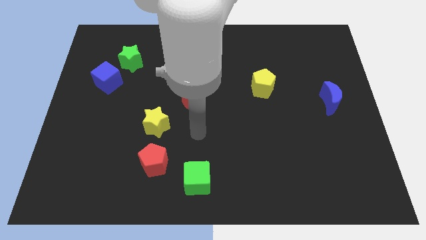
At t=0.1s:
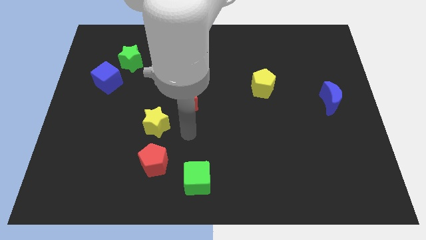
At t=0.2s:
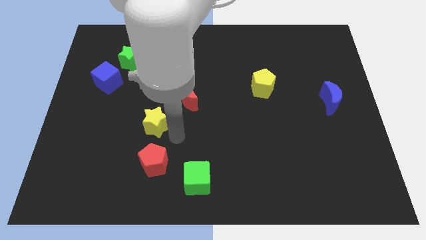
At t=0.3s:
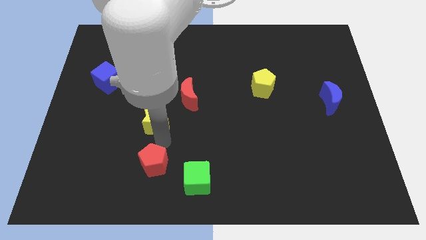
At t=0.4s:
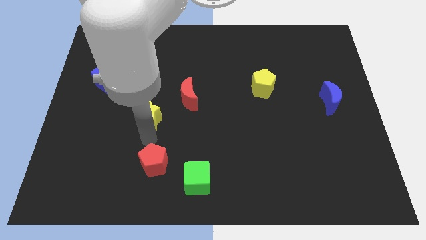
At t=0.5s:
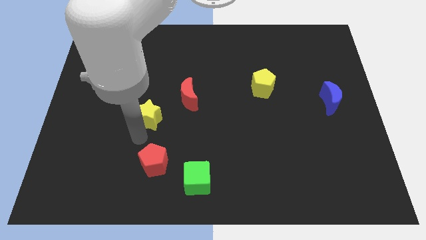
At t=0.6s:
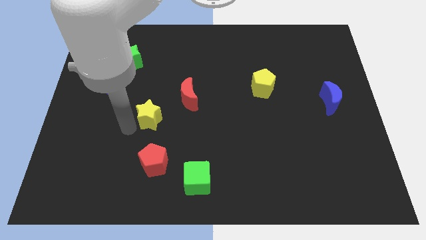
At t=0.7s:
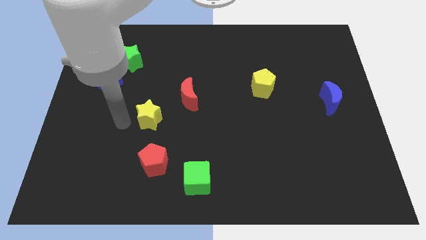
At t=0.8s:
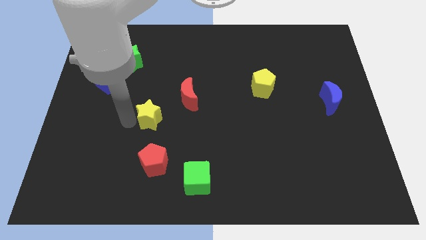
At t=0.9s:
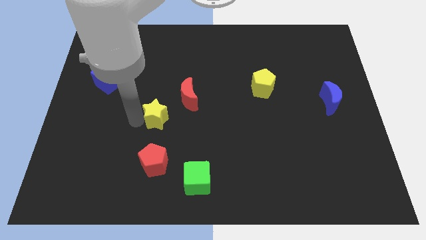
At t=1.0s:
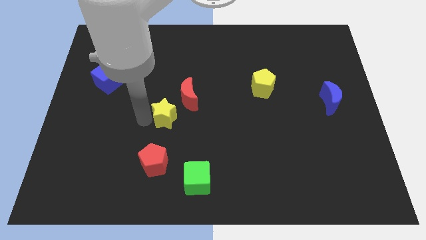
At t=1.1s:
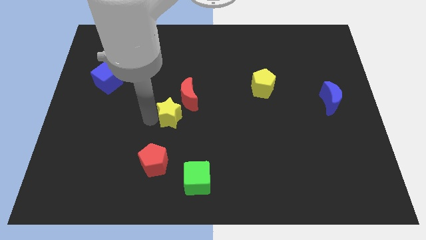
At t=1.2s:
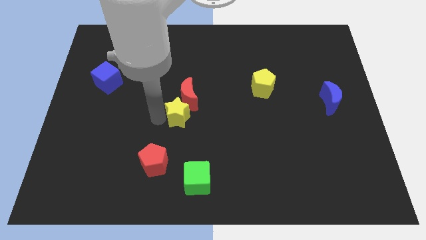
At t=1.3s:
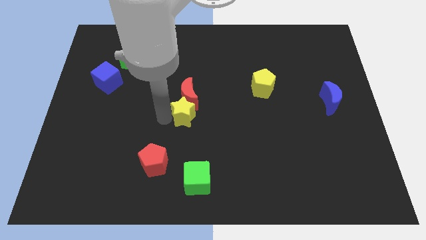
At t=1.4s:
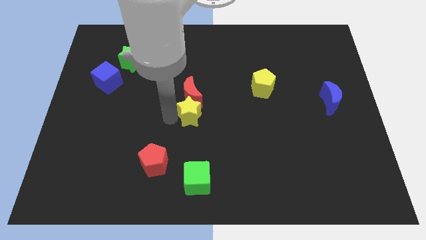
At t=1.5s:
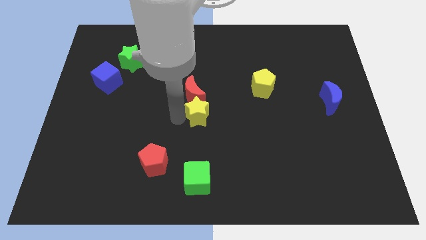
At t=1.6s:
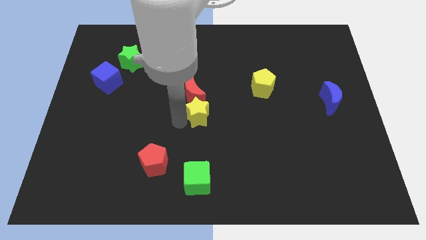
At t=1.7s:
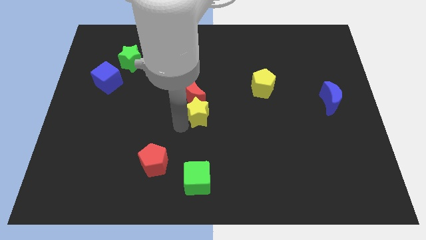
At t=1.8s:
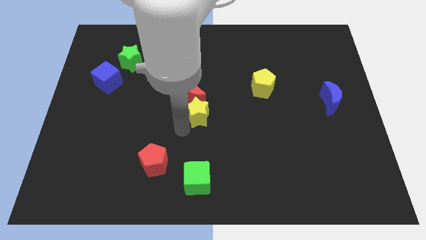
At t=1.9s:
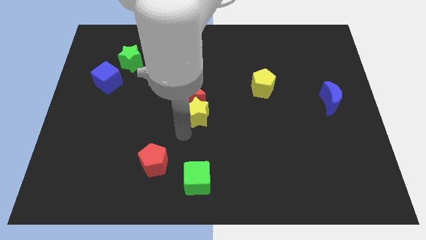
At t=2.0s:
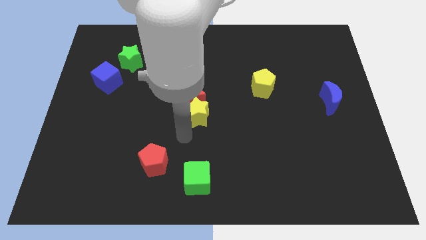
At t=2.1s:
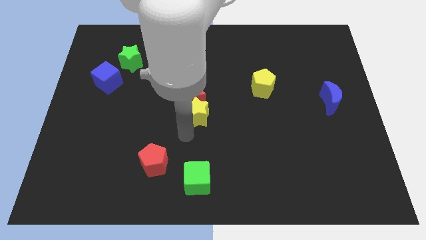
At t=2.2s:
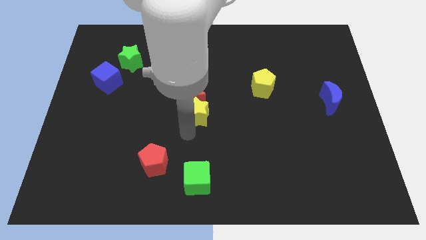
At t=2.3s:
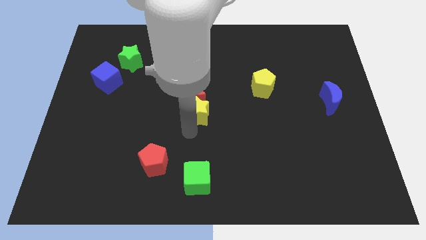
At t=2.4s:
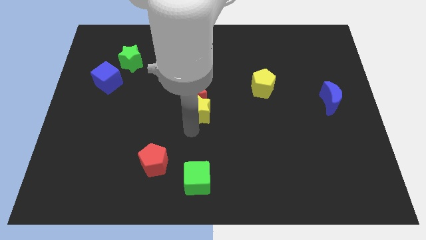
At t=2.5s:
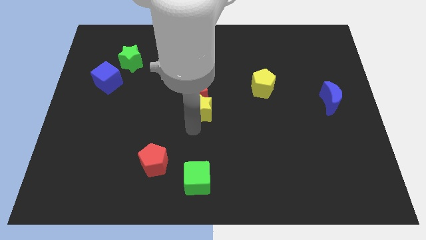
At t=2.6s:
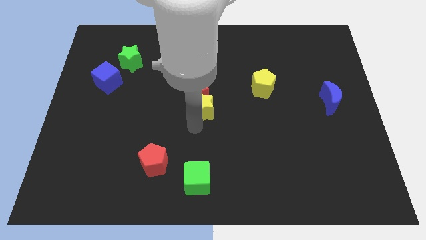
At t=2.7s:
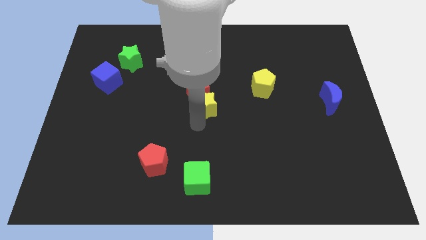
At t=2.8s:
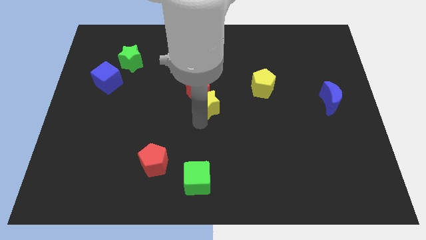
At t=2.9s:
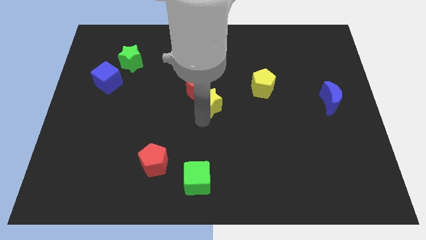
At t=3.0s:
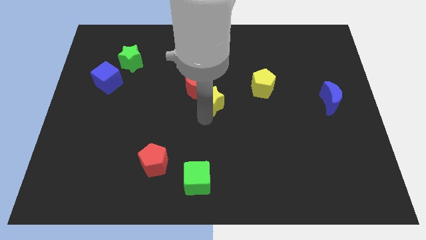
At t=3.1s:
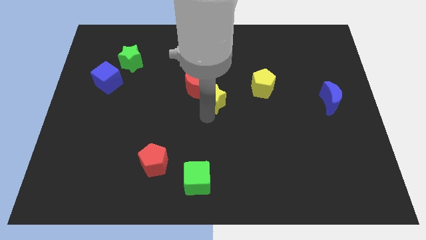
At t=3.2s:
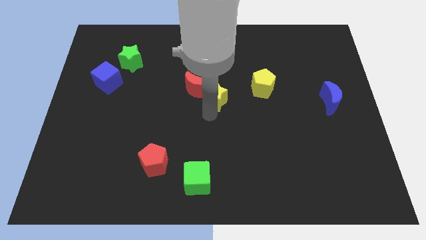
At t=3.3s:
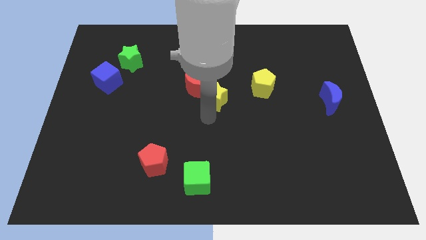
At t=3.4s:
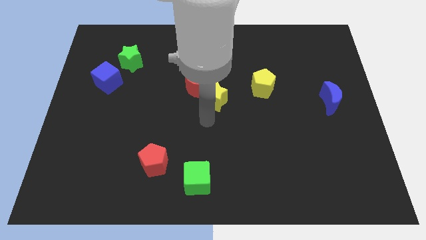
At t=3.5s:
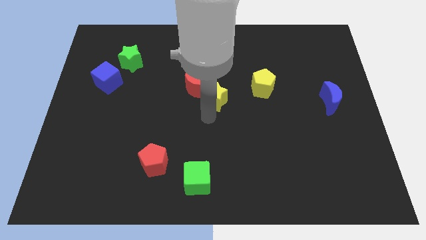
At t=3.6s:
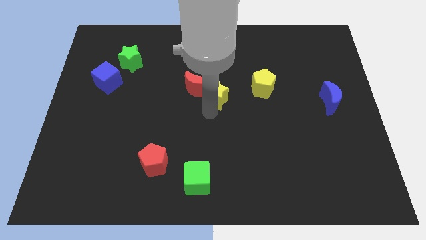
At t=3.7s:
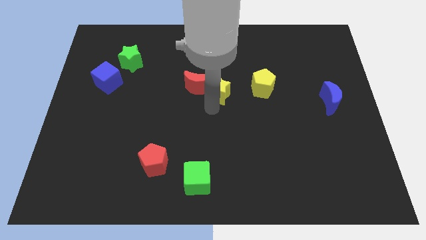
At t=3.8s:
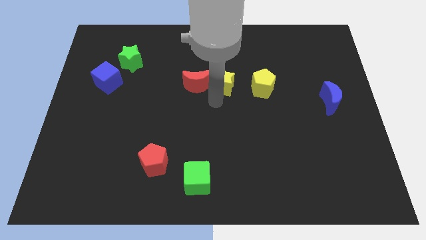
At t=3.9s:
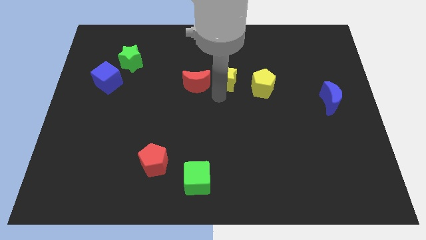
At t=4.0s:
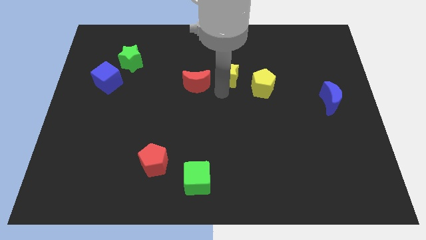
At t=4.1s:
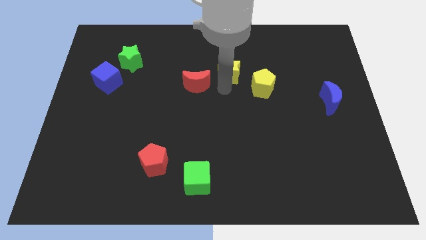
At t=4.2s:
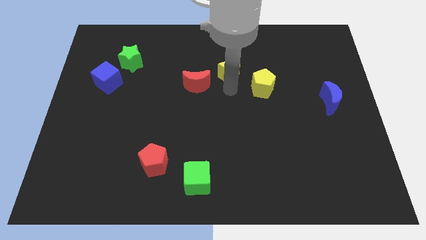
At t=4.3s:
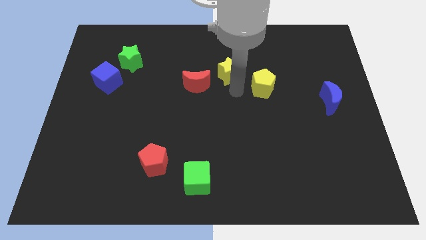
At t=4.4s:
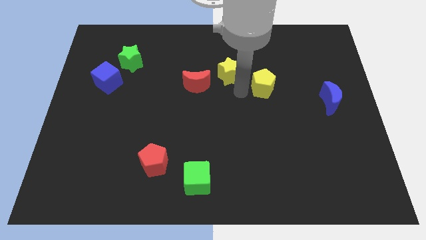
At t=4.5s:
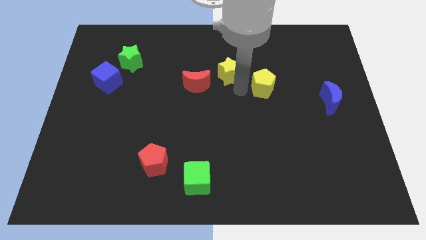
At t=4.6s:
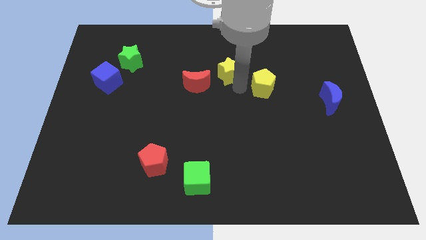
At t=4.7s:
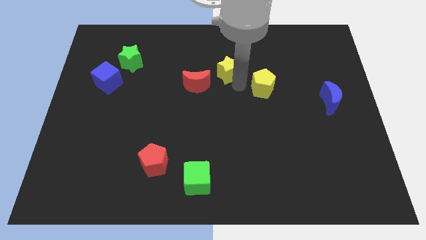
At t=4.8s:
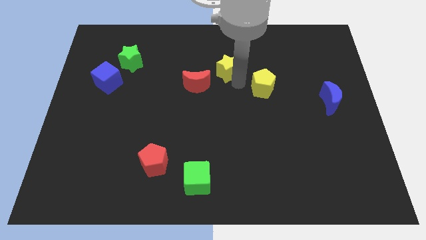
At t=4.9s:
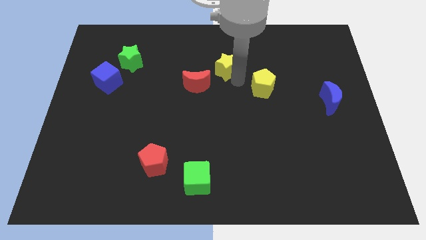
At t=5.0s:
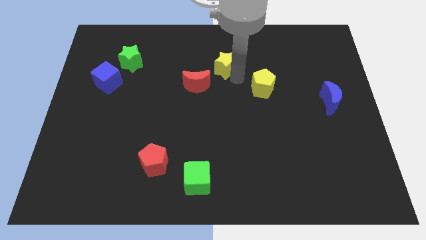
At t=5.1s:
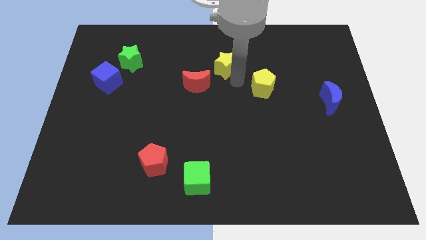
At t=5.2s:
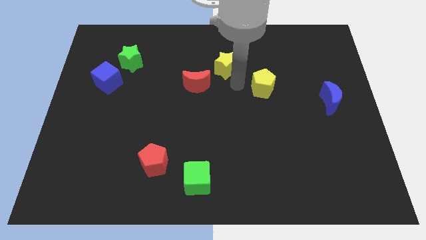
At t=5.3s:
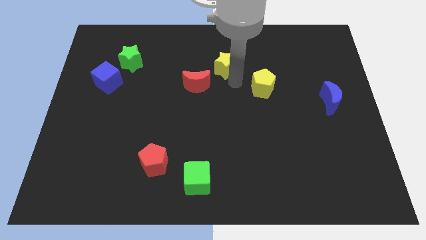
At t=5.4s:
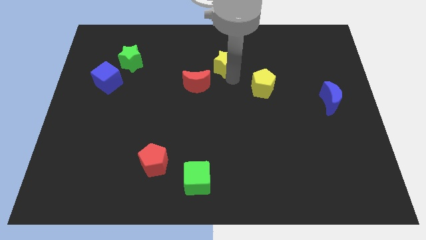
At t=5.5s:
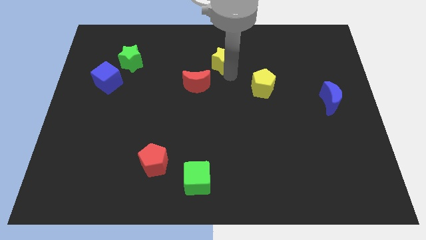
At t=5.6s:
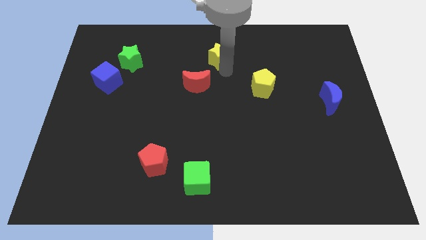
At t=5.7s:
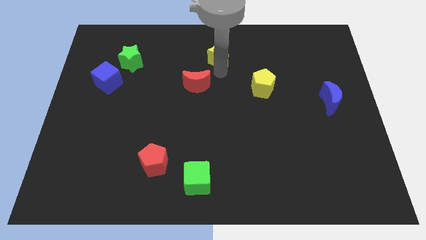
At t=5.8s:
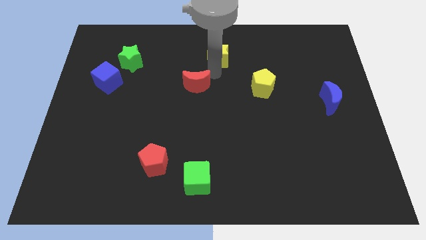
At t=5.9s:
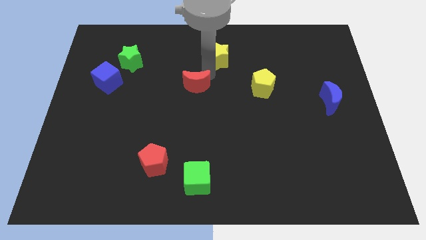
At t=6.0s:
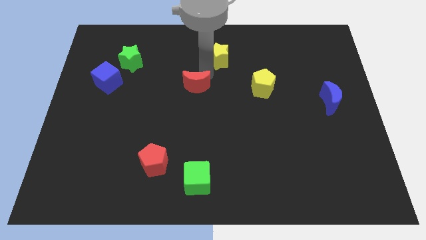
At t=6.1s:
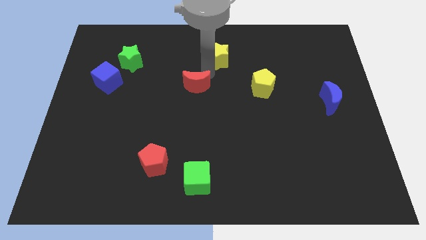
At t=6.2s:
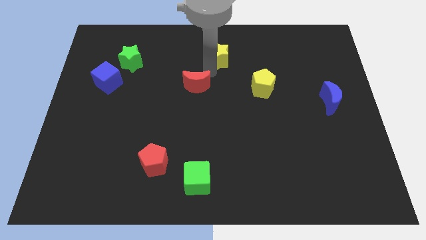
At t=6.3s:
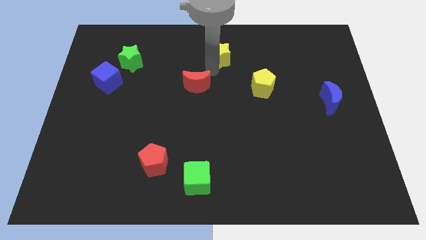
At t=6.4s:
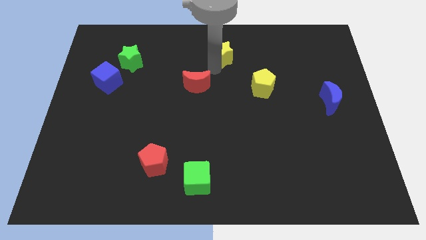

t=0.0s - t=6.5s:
slide the yellow star to the top side
